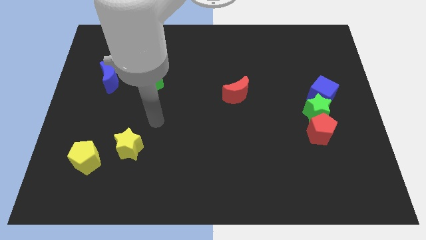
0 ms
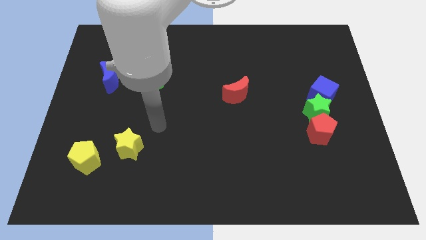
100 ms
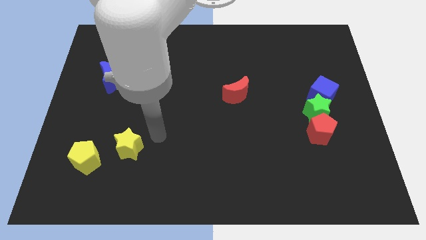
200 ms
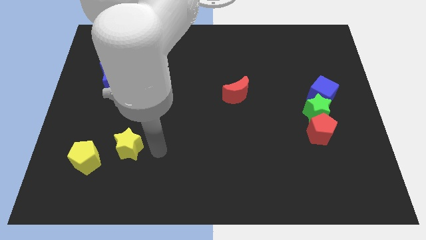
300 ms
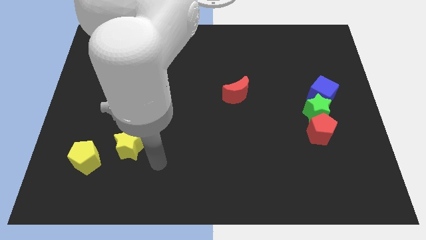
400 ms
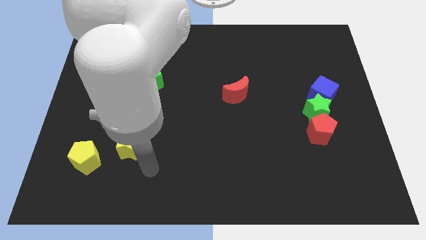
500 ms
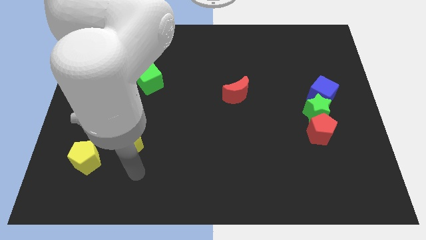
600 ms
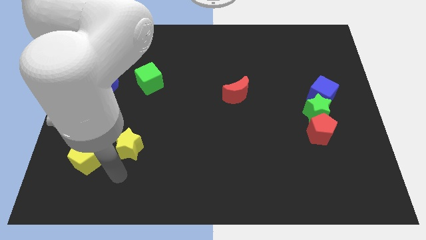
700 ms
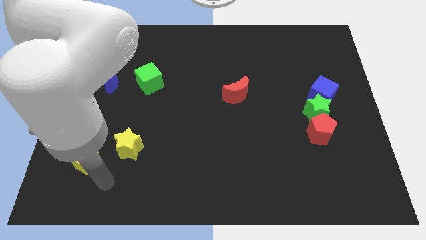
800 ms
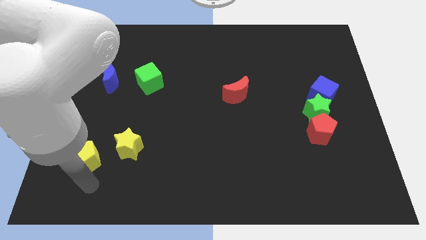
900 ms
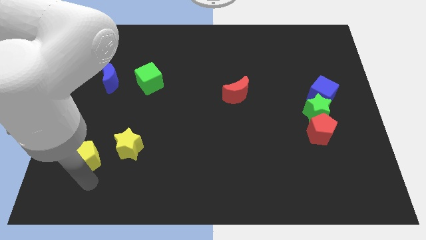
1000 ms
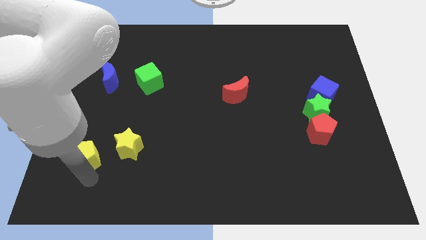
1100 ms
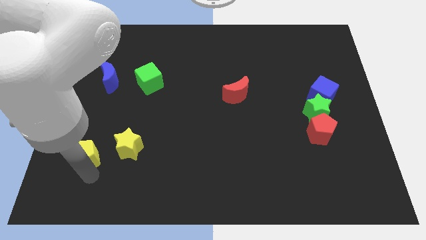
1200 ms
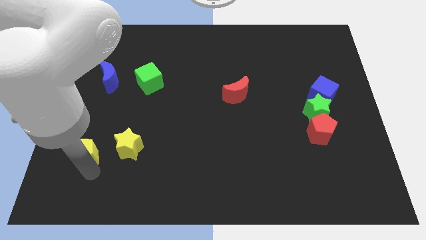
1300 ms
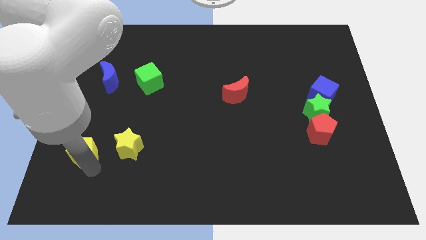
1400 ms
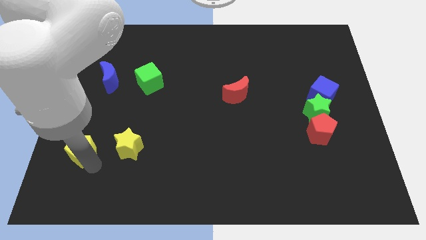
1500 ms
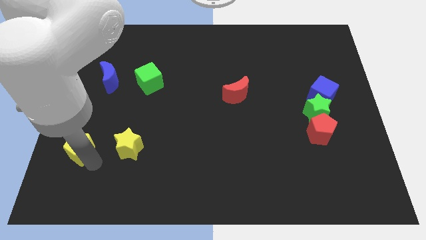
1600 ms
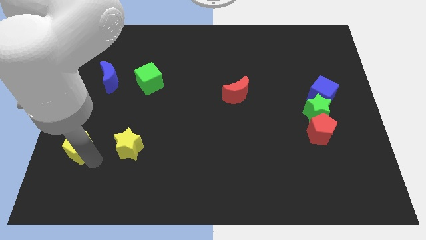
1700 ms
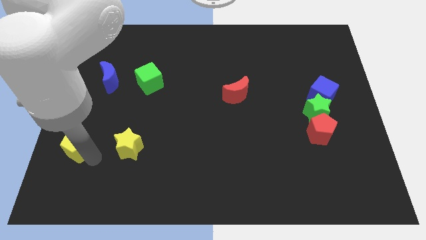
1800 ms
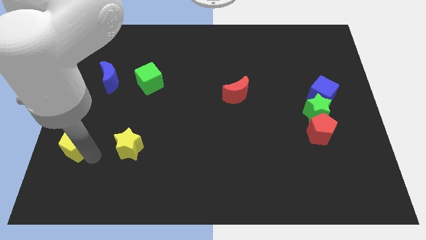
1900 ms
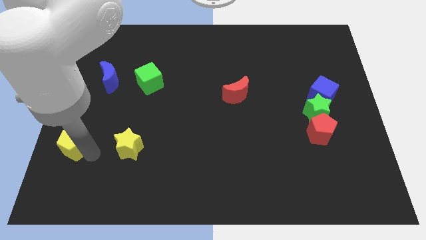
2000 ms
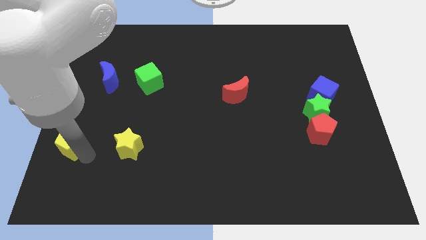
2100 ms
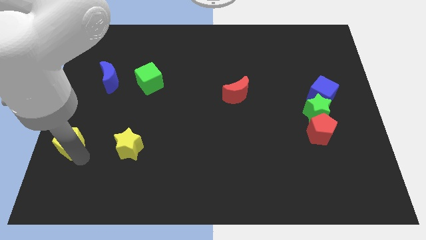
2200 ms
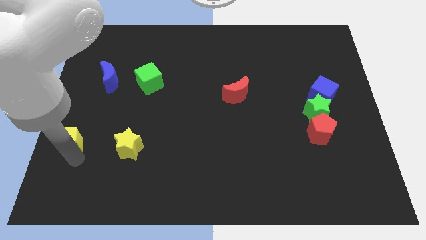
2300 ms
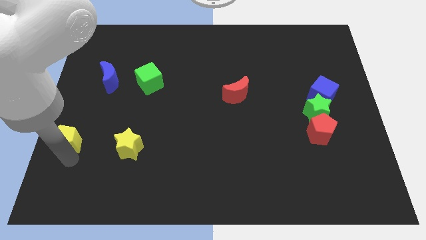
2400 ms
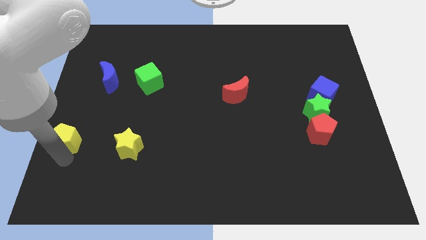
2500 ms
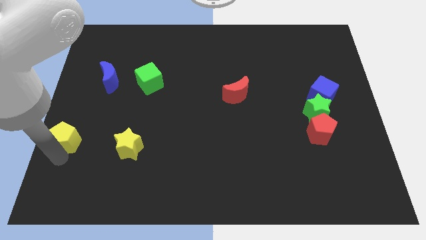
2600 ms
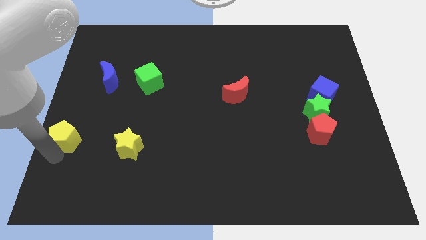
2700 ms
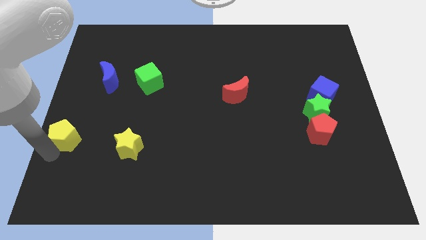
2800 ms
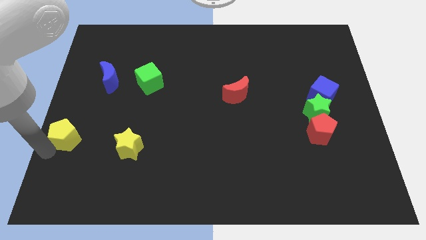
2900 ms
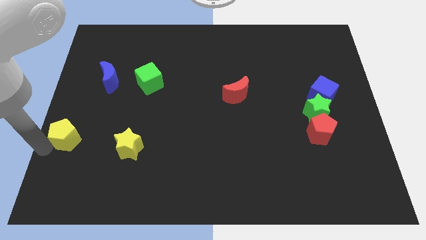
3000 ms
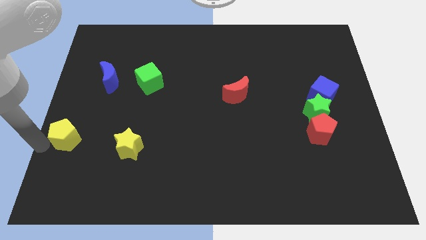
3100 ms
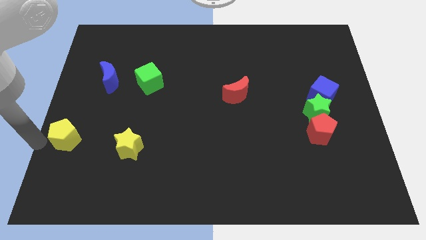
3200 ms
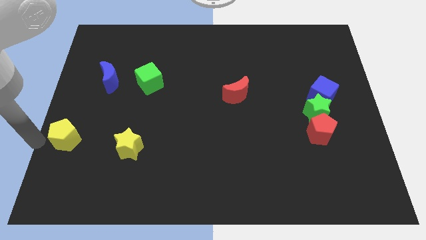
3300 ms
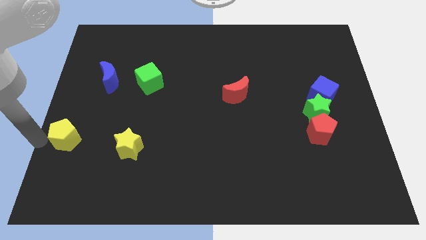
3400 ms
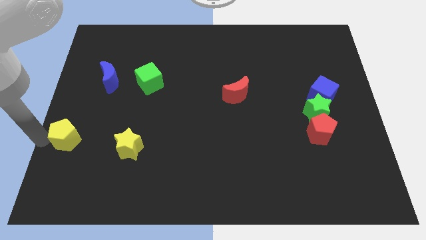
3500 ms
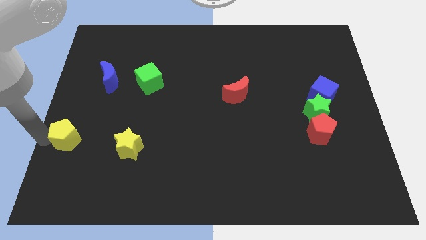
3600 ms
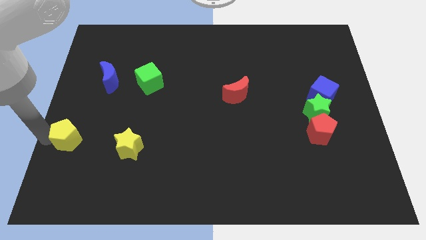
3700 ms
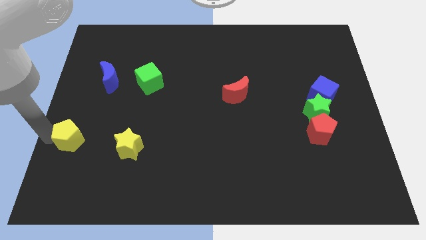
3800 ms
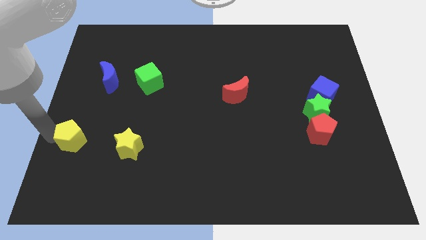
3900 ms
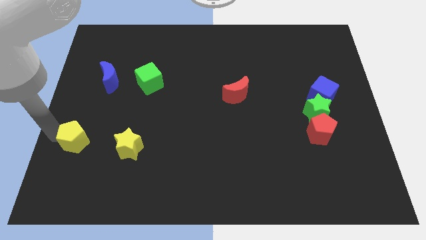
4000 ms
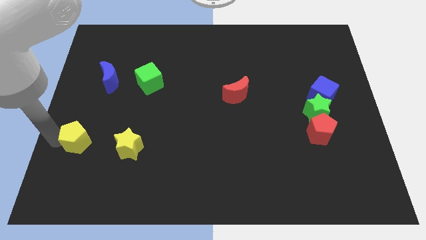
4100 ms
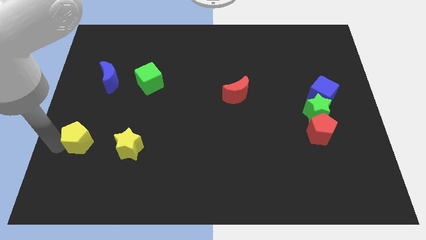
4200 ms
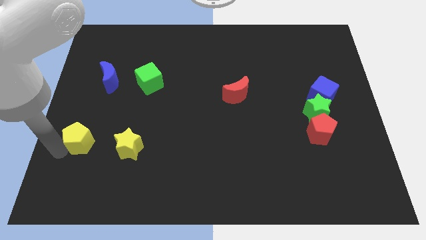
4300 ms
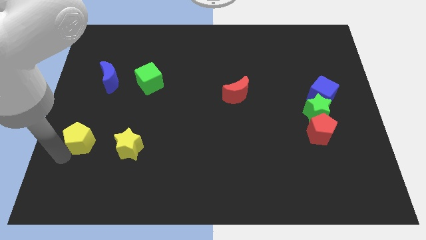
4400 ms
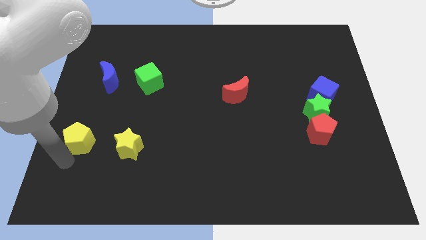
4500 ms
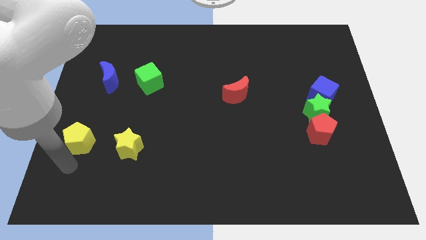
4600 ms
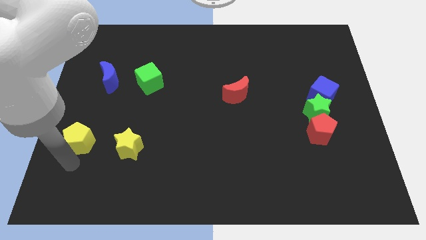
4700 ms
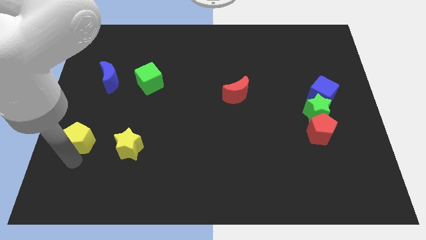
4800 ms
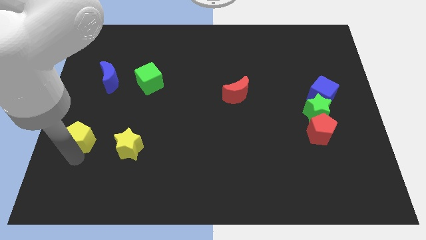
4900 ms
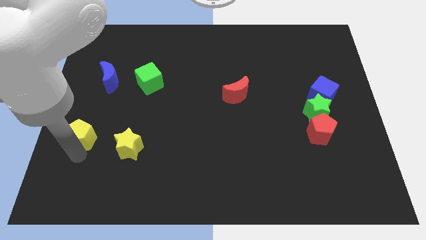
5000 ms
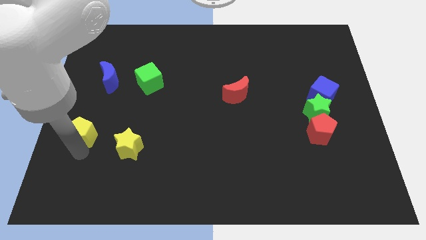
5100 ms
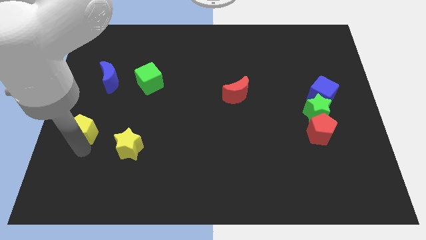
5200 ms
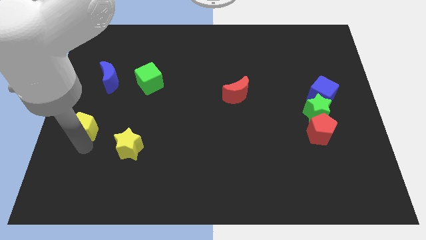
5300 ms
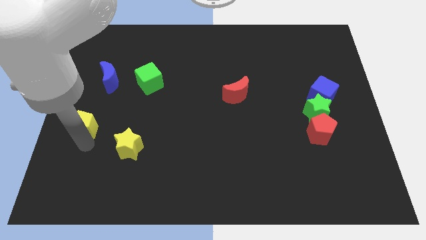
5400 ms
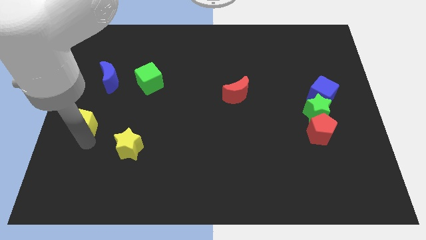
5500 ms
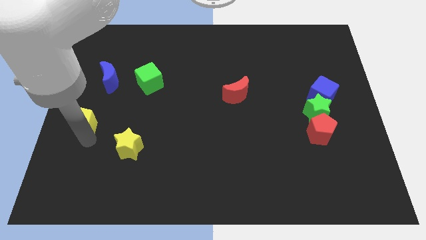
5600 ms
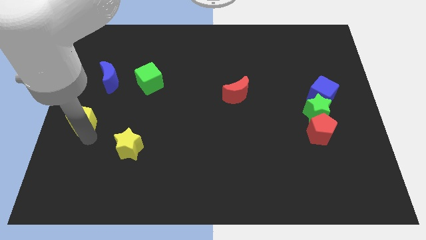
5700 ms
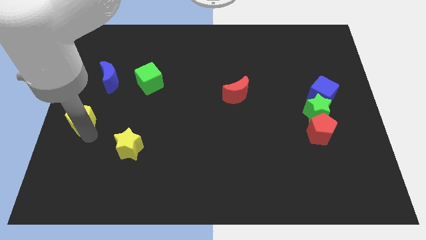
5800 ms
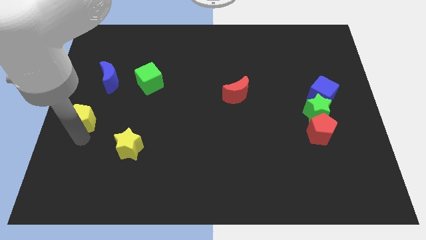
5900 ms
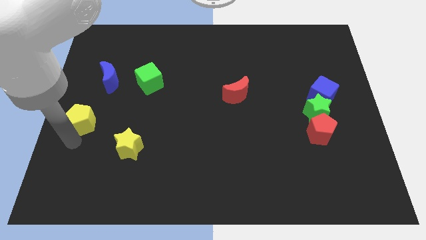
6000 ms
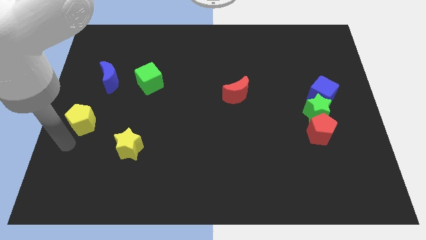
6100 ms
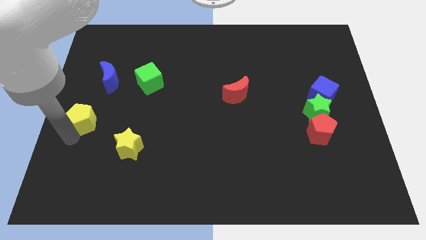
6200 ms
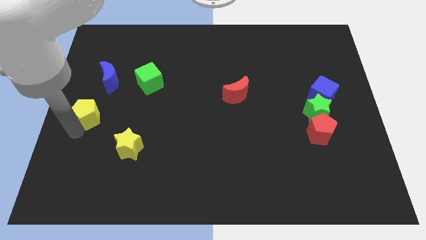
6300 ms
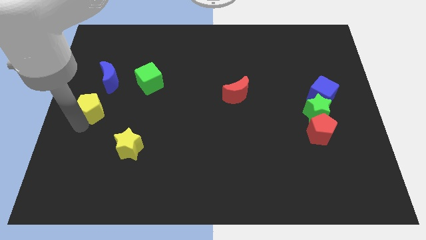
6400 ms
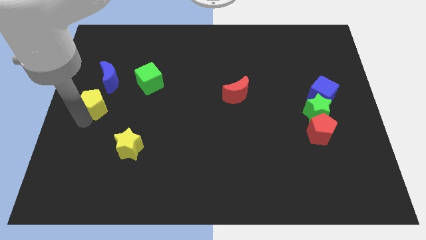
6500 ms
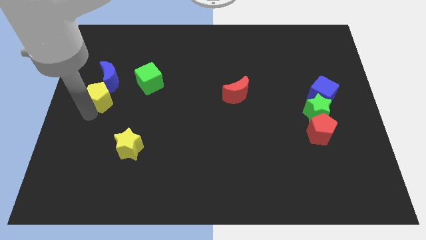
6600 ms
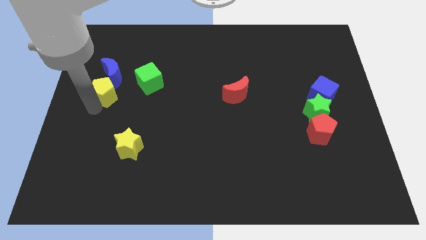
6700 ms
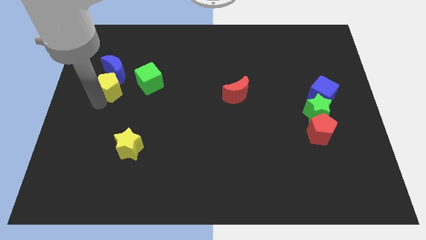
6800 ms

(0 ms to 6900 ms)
push the yellow pentagon close to the blue moon

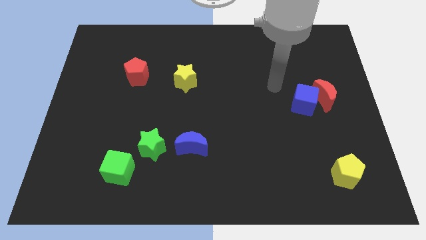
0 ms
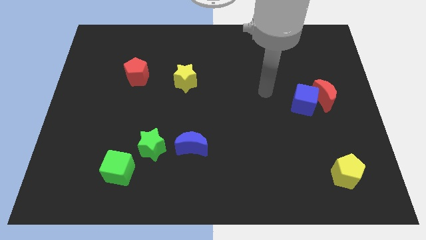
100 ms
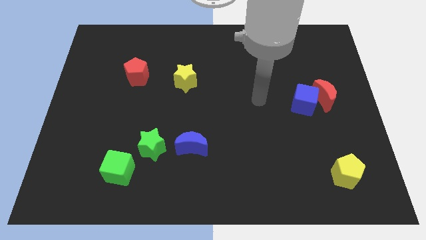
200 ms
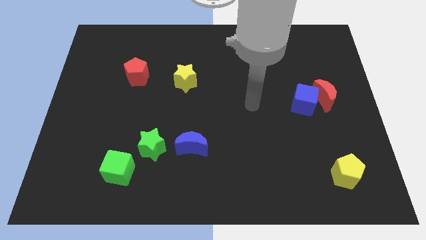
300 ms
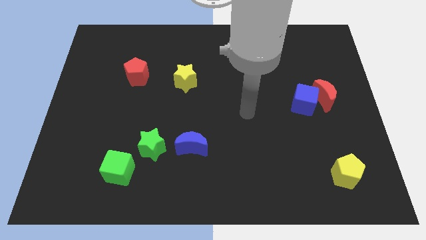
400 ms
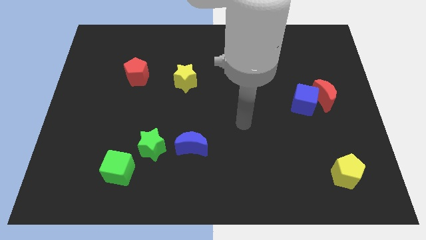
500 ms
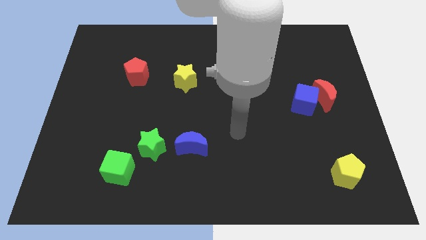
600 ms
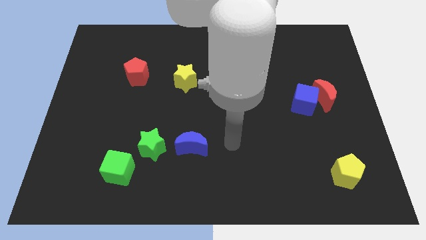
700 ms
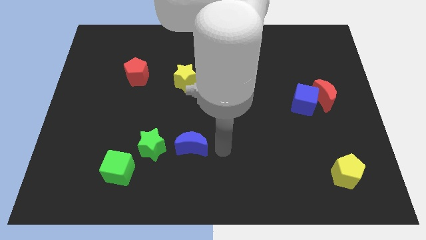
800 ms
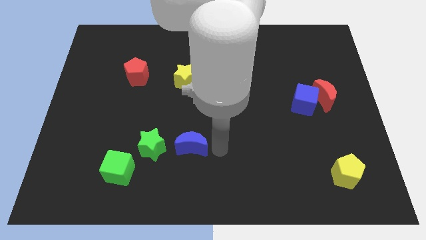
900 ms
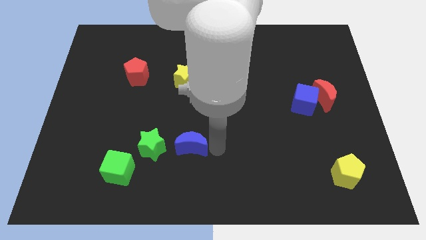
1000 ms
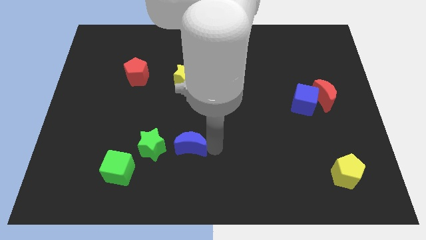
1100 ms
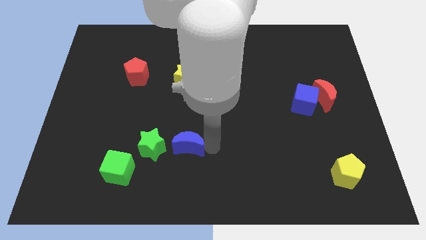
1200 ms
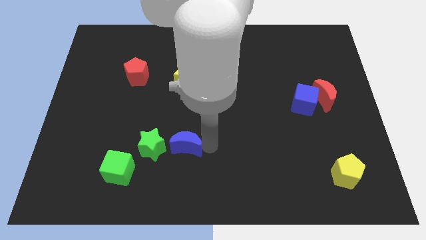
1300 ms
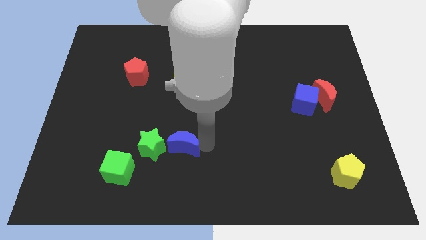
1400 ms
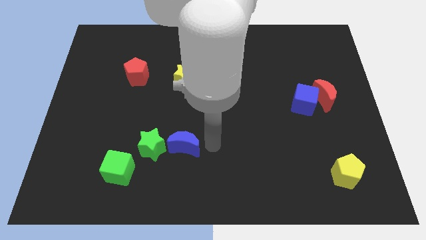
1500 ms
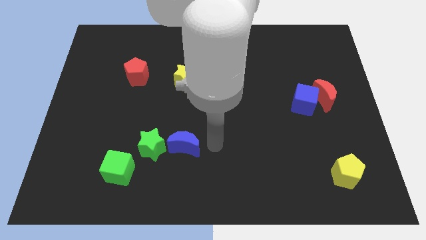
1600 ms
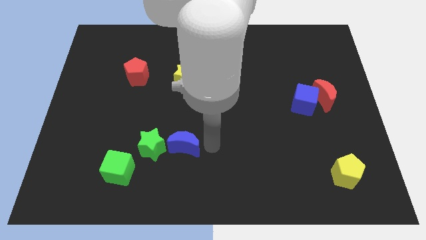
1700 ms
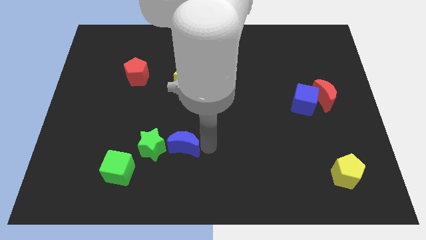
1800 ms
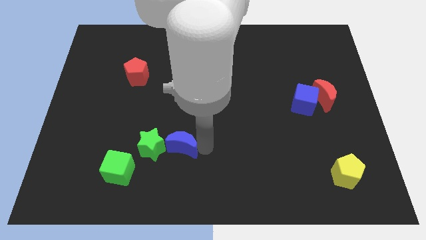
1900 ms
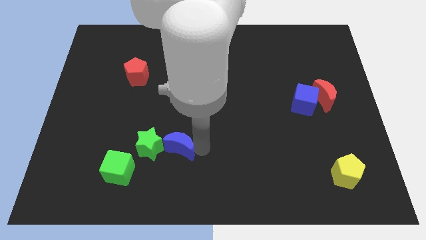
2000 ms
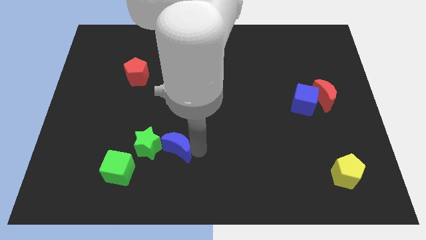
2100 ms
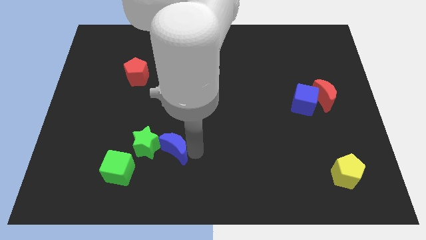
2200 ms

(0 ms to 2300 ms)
put the blue moon towards the green star
